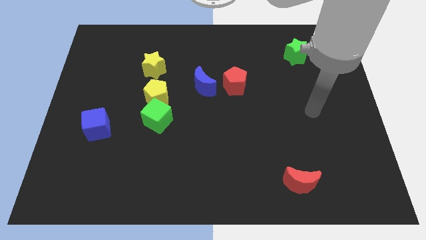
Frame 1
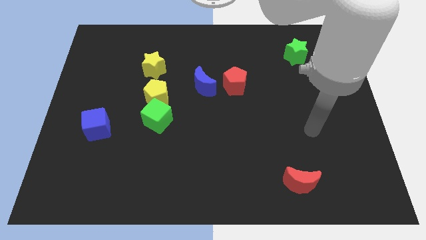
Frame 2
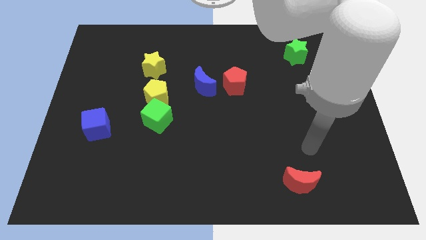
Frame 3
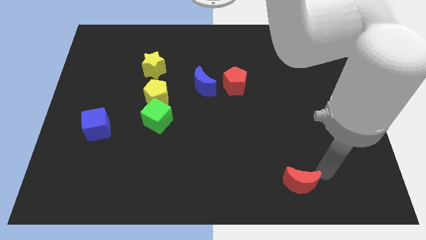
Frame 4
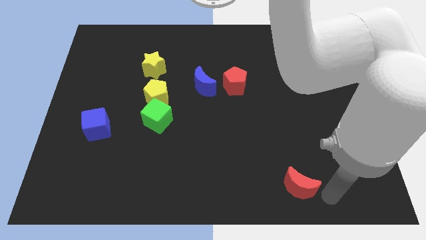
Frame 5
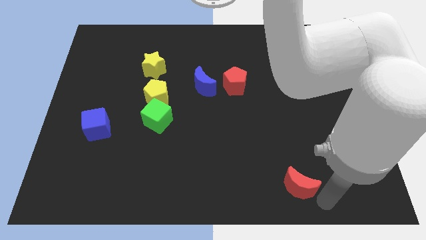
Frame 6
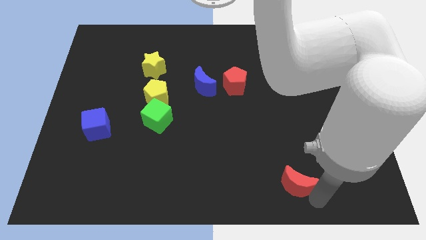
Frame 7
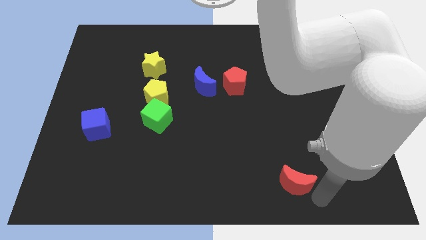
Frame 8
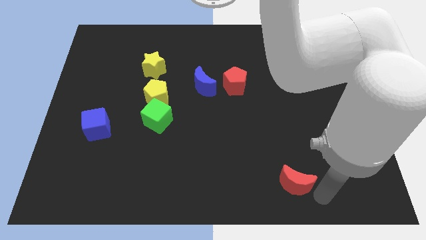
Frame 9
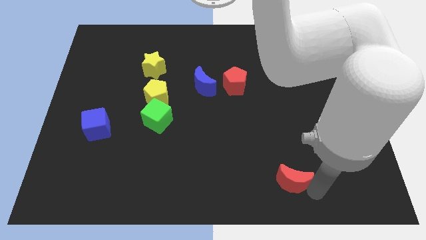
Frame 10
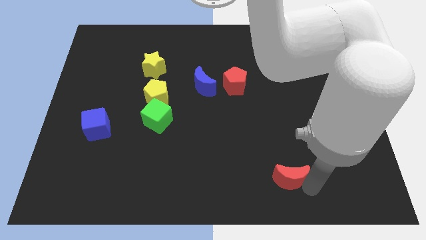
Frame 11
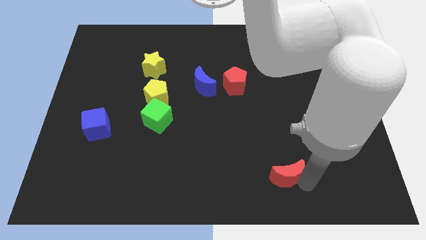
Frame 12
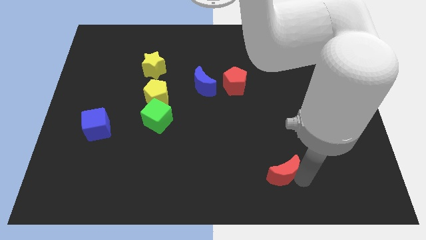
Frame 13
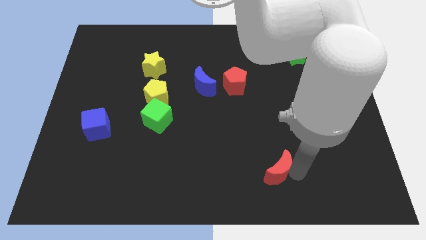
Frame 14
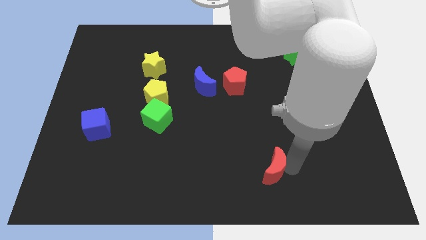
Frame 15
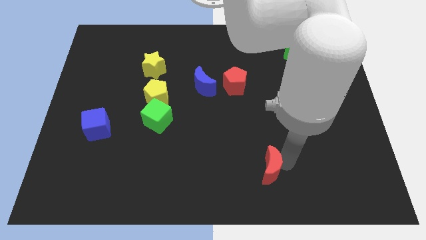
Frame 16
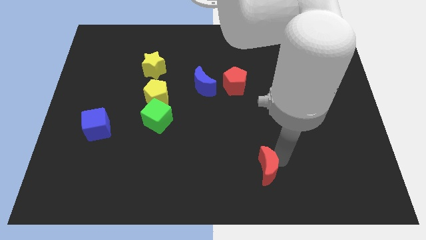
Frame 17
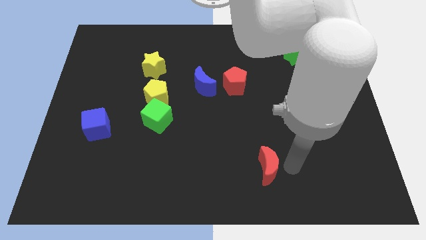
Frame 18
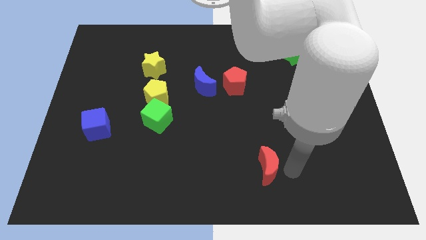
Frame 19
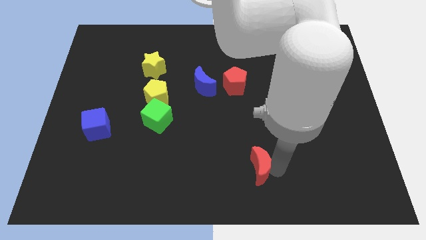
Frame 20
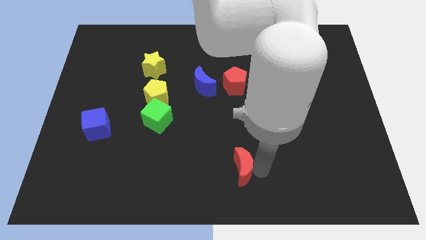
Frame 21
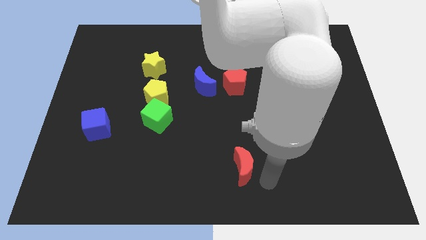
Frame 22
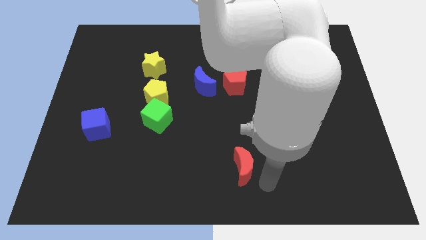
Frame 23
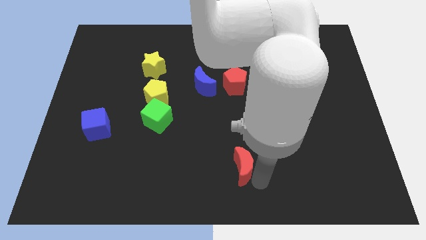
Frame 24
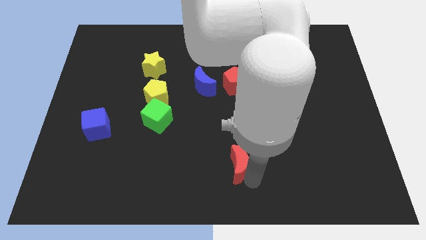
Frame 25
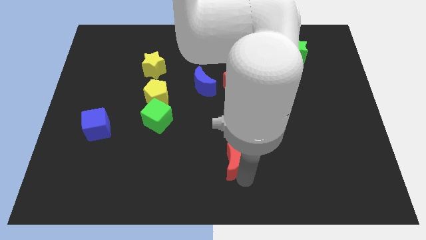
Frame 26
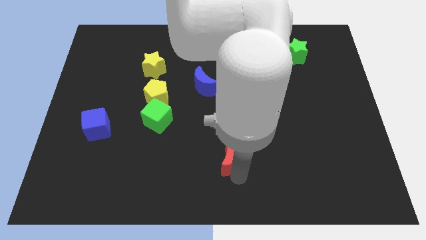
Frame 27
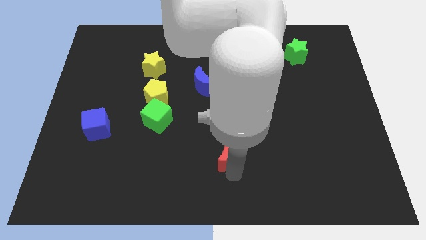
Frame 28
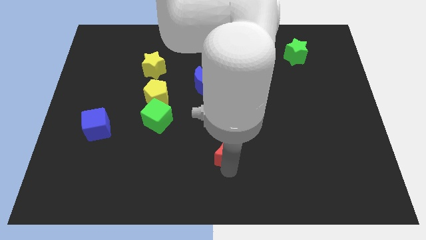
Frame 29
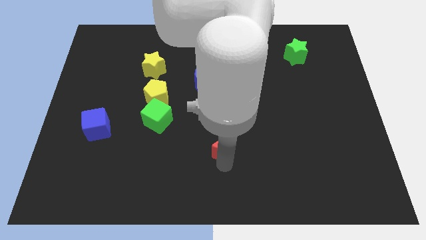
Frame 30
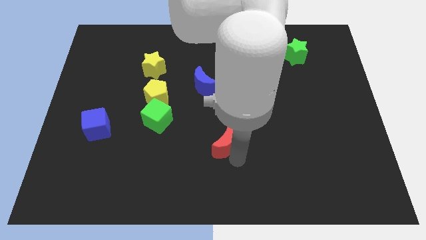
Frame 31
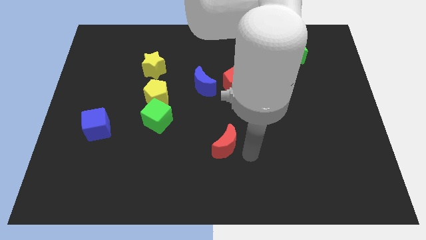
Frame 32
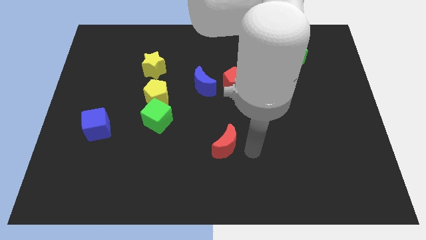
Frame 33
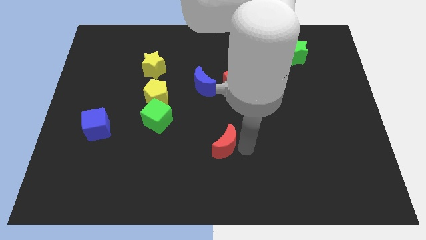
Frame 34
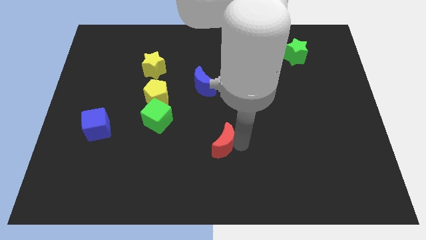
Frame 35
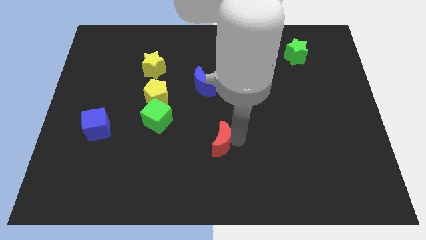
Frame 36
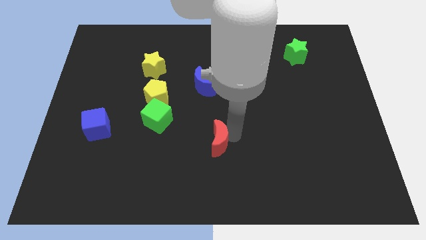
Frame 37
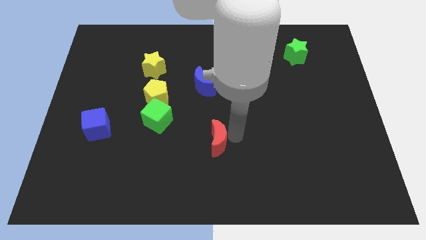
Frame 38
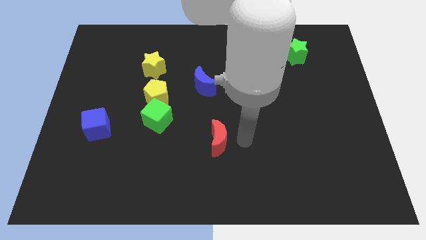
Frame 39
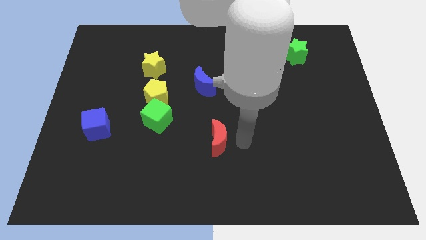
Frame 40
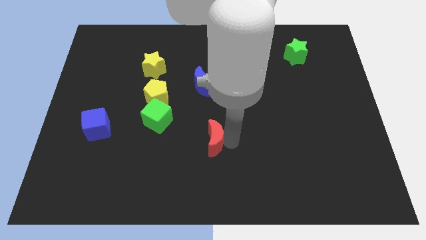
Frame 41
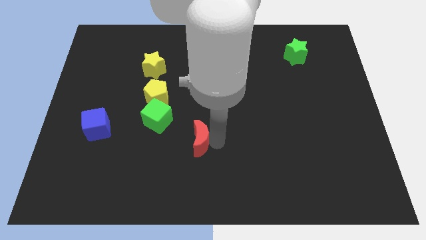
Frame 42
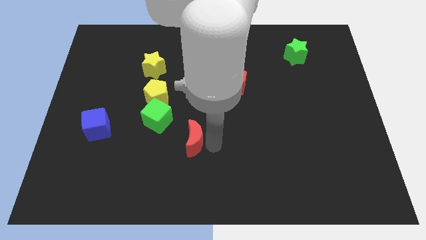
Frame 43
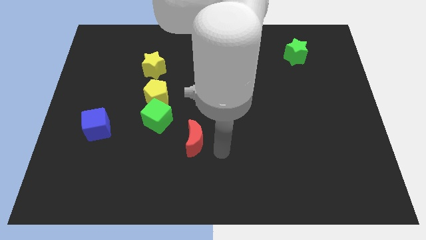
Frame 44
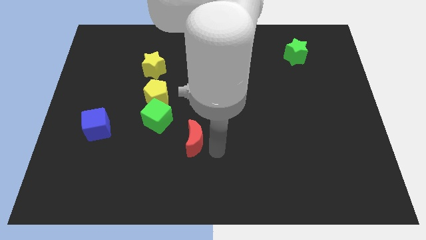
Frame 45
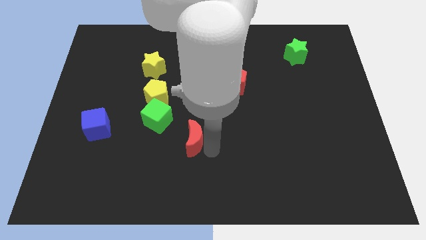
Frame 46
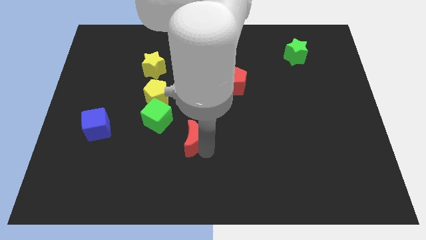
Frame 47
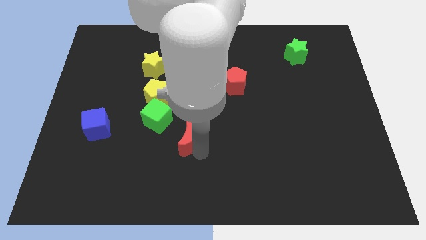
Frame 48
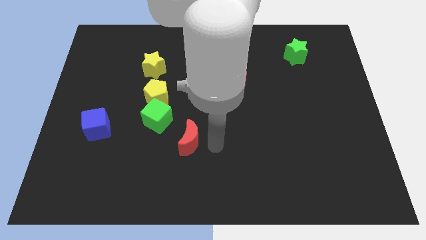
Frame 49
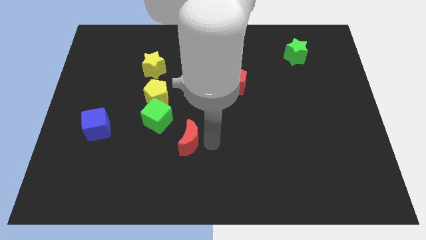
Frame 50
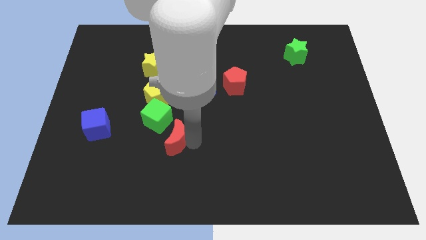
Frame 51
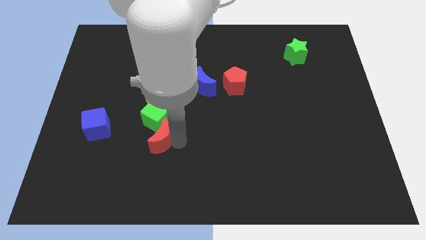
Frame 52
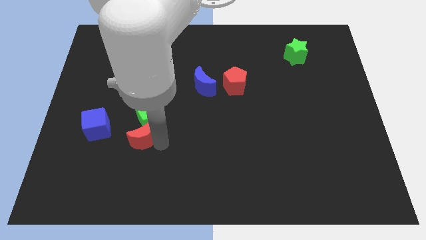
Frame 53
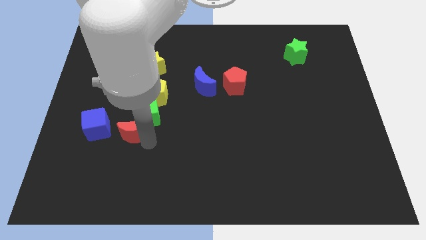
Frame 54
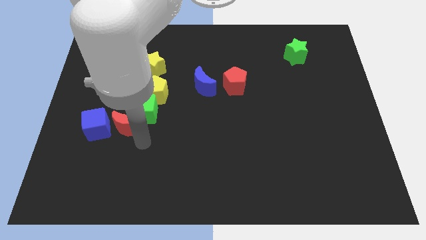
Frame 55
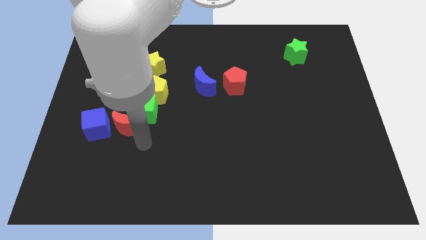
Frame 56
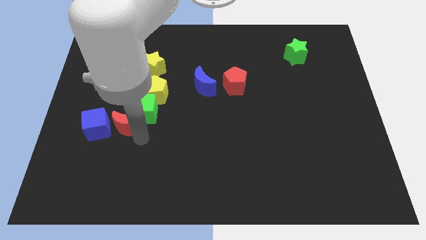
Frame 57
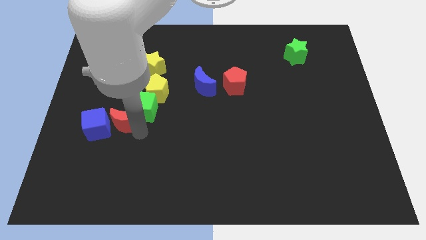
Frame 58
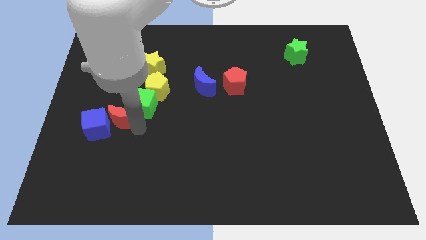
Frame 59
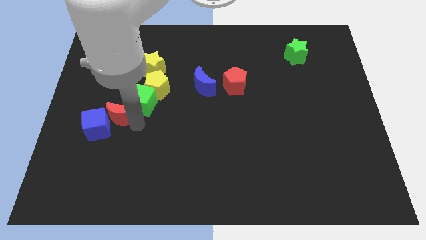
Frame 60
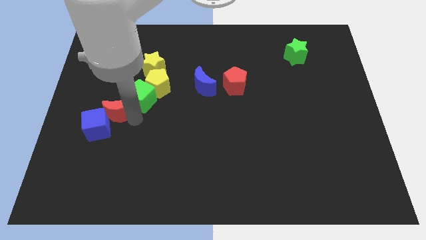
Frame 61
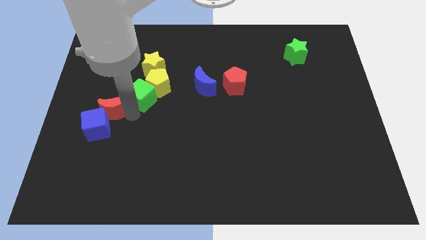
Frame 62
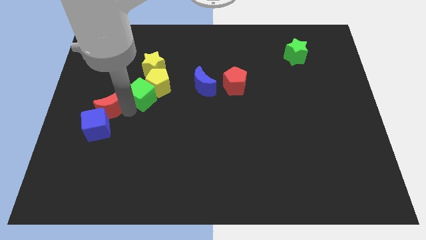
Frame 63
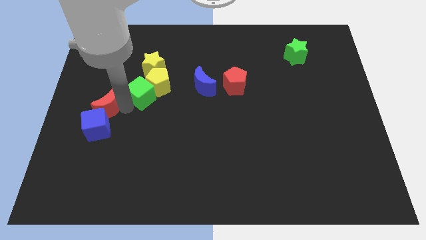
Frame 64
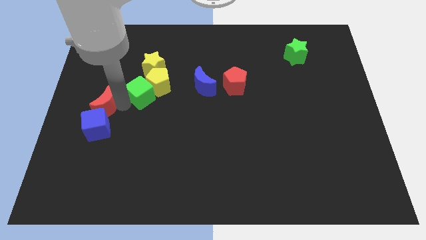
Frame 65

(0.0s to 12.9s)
slide the red moon to the left side

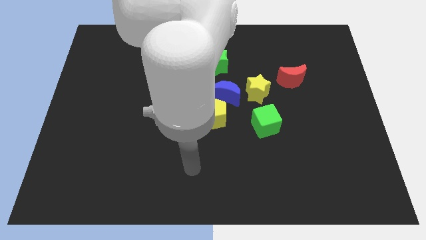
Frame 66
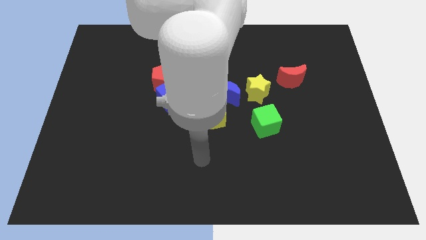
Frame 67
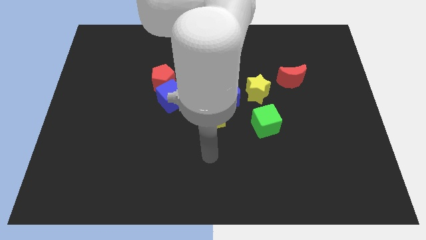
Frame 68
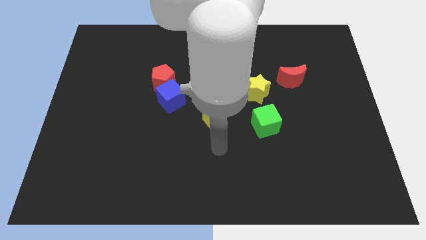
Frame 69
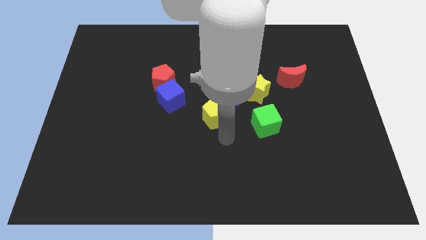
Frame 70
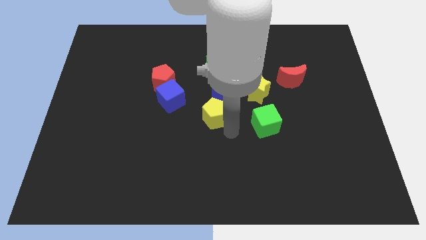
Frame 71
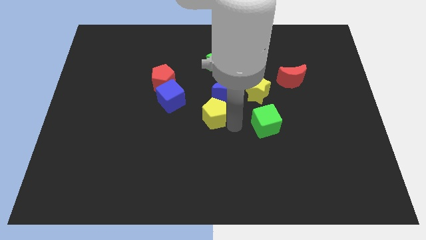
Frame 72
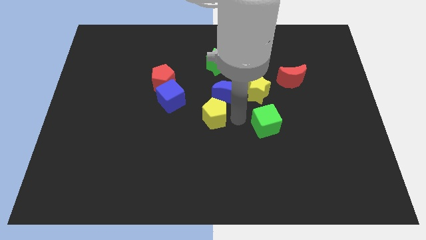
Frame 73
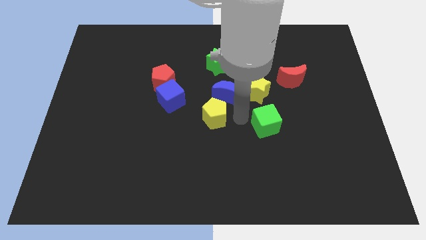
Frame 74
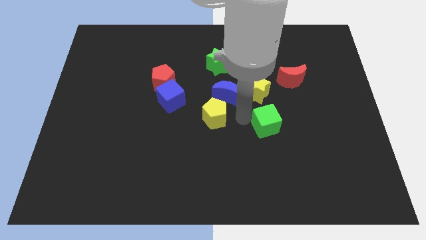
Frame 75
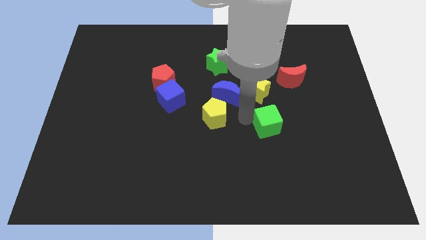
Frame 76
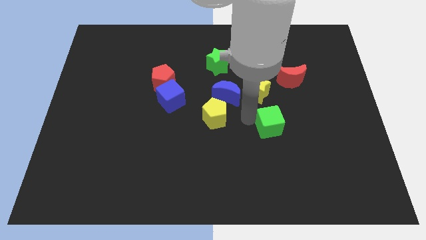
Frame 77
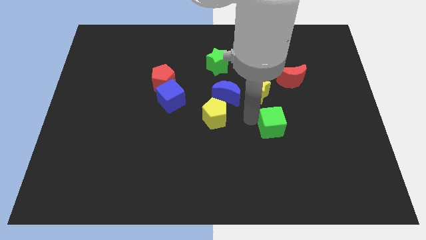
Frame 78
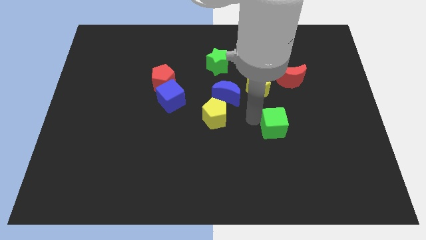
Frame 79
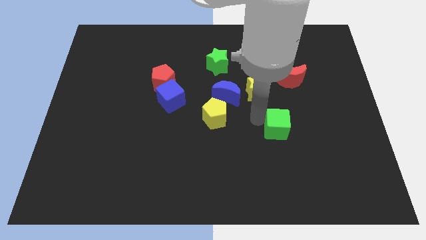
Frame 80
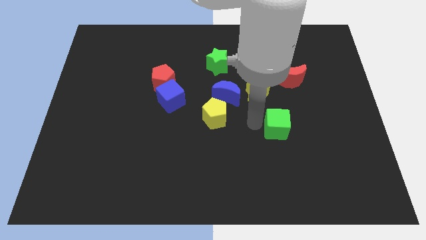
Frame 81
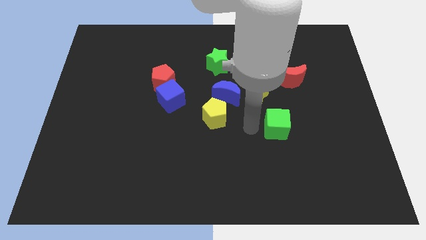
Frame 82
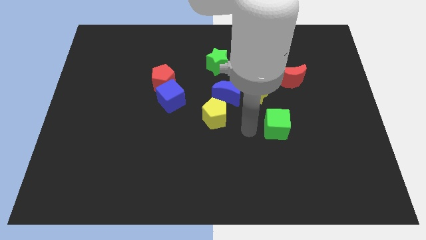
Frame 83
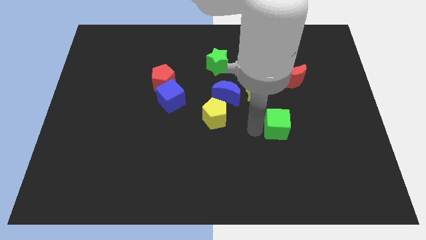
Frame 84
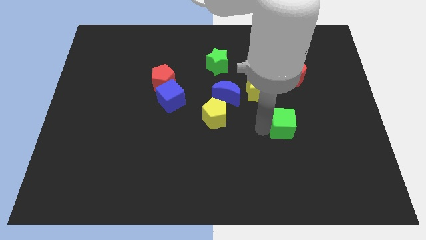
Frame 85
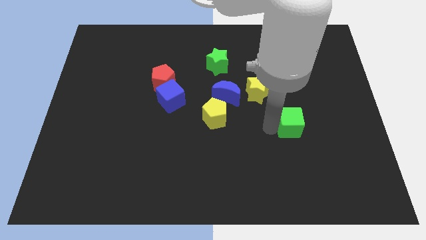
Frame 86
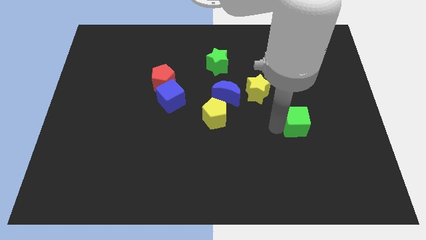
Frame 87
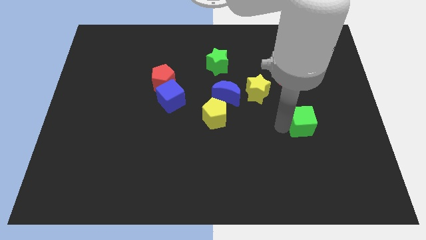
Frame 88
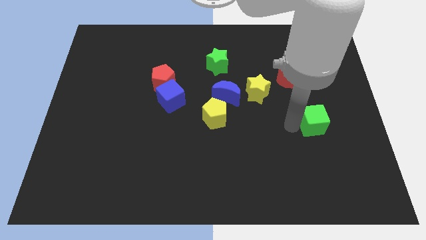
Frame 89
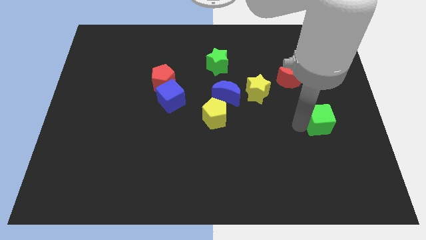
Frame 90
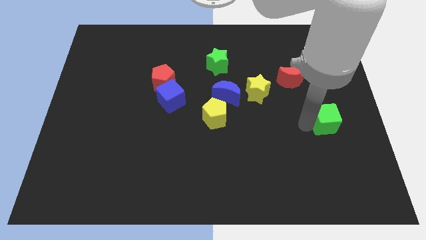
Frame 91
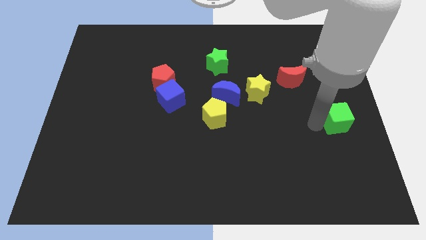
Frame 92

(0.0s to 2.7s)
slide the green cube to the center right
